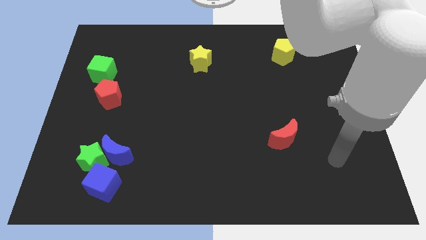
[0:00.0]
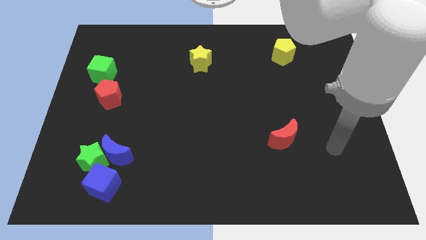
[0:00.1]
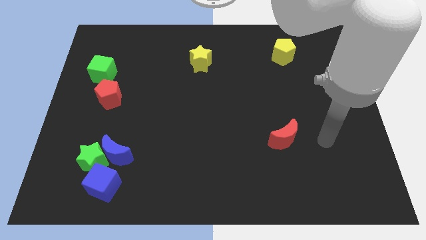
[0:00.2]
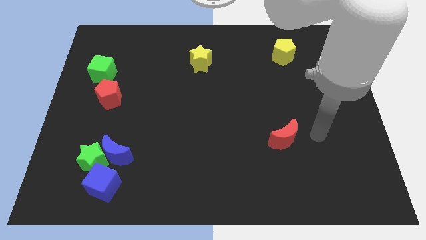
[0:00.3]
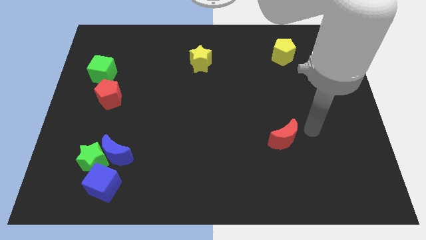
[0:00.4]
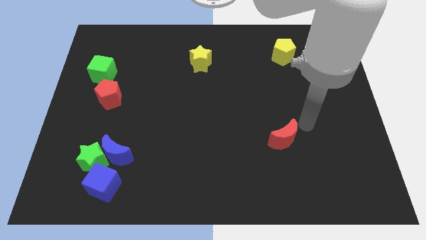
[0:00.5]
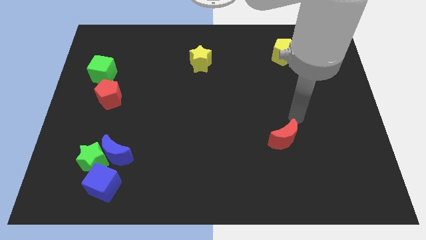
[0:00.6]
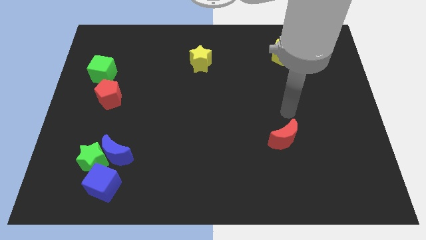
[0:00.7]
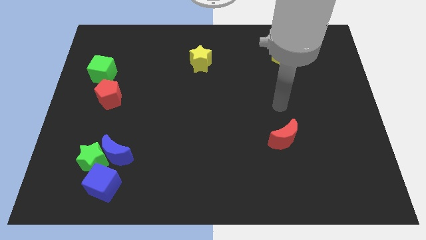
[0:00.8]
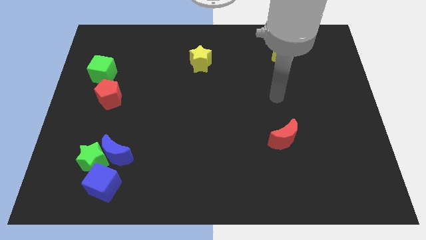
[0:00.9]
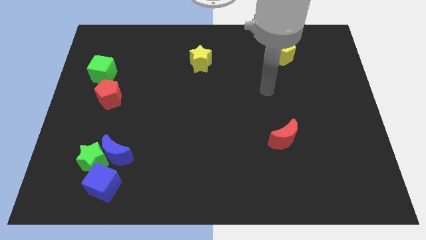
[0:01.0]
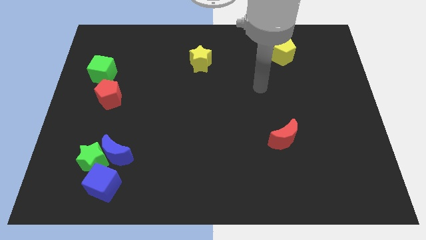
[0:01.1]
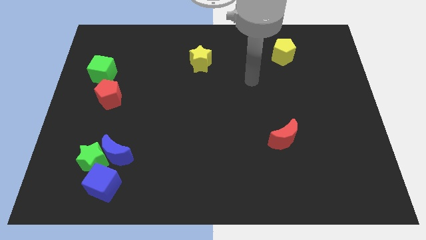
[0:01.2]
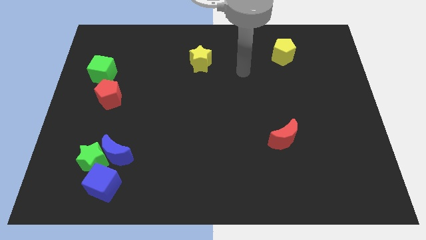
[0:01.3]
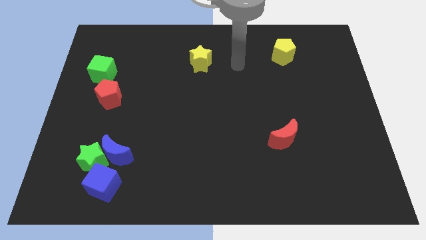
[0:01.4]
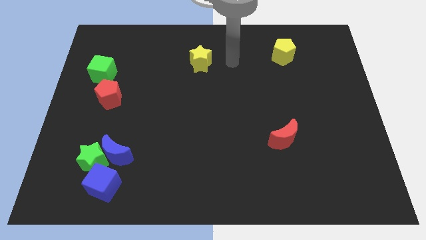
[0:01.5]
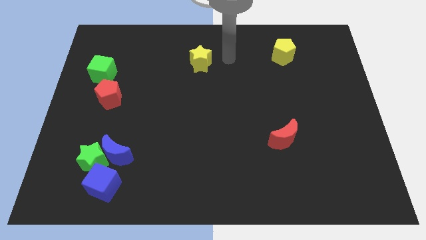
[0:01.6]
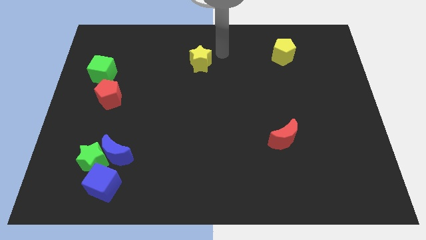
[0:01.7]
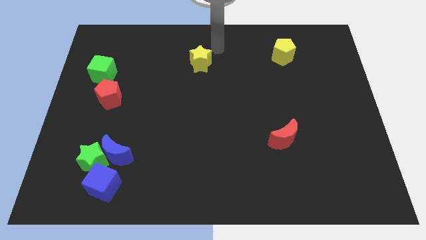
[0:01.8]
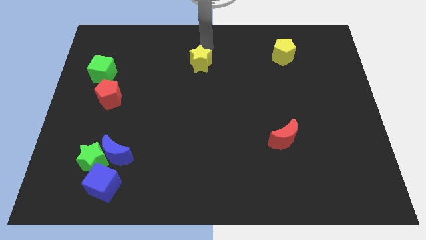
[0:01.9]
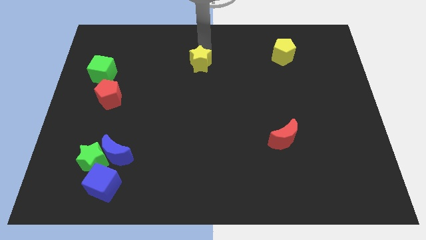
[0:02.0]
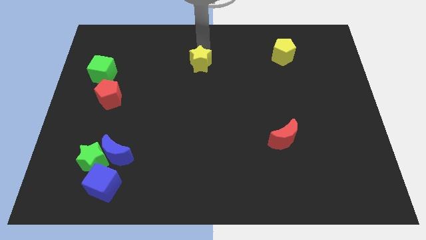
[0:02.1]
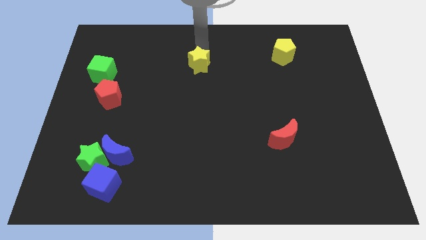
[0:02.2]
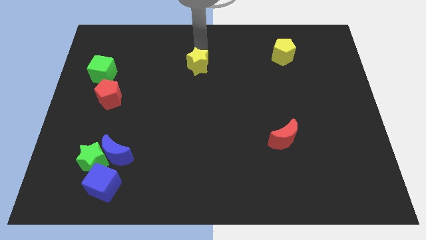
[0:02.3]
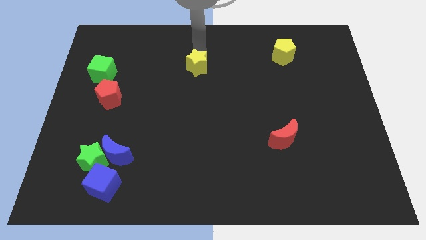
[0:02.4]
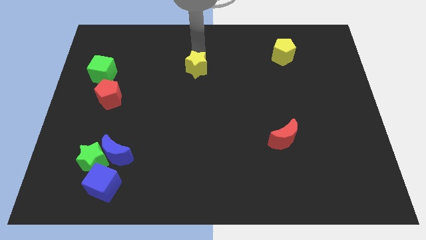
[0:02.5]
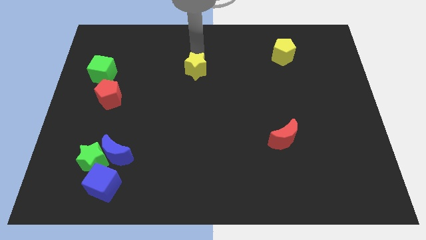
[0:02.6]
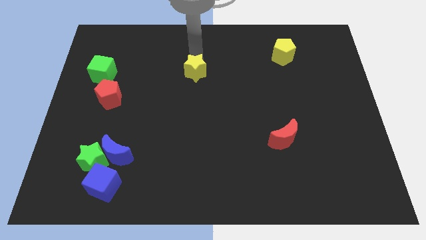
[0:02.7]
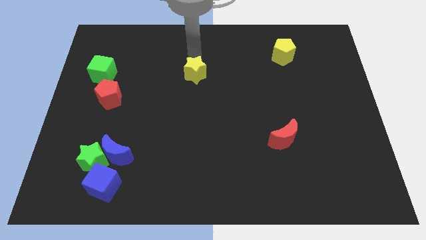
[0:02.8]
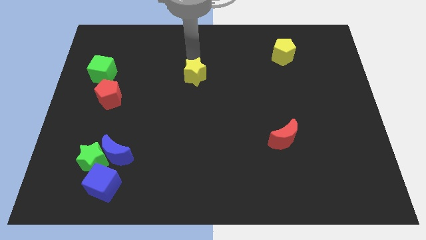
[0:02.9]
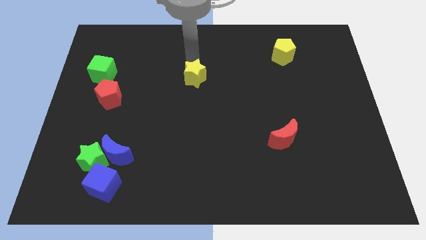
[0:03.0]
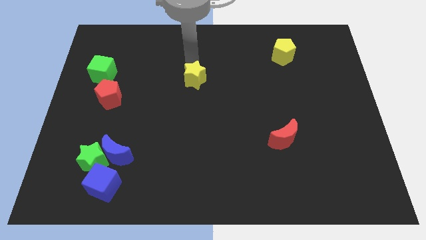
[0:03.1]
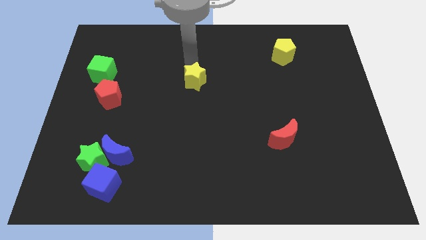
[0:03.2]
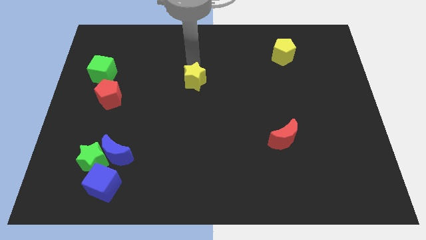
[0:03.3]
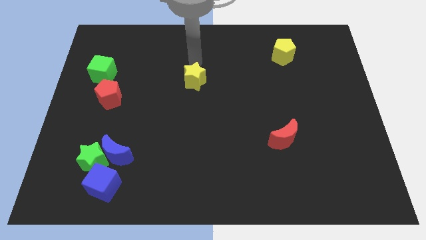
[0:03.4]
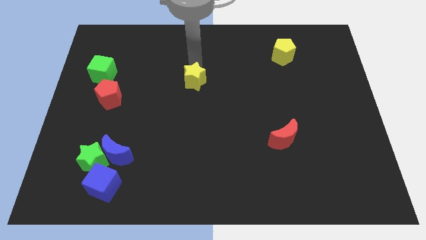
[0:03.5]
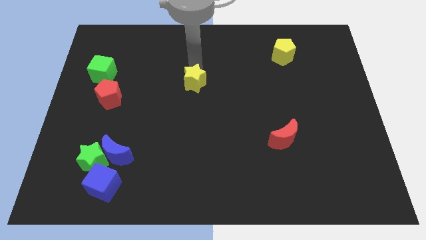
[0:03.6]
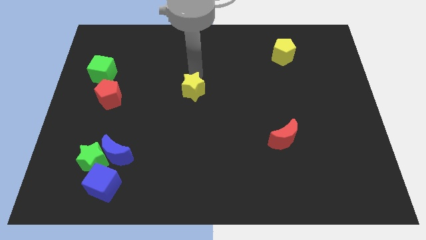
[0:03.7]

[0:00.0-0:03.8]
slightly move the yellow star down

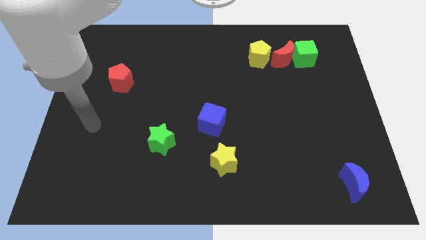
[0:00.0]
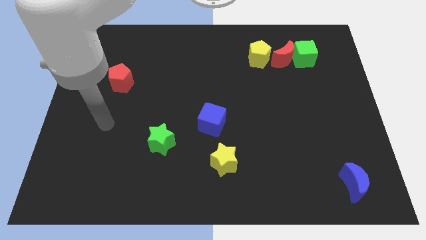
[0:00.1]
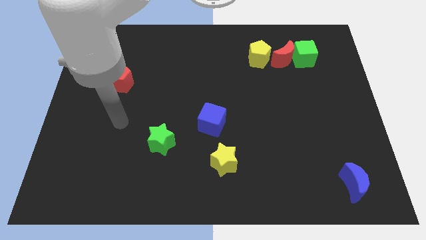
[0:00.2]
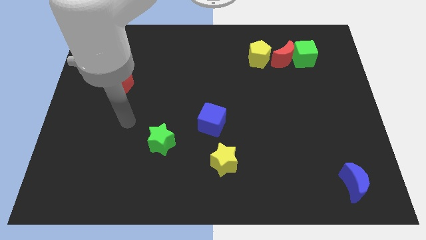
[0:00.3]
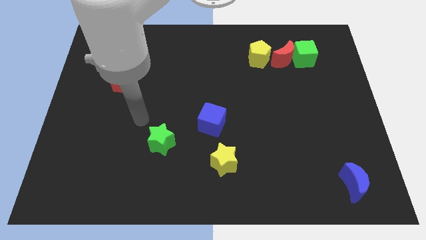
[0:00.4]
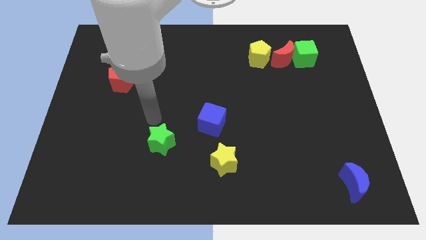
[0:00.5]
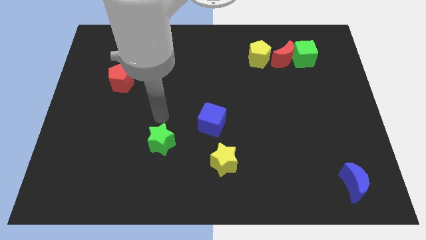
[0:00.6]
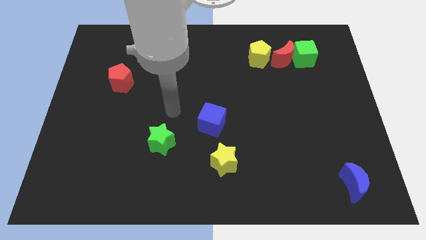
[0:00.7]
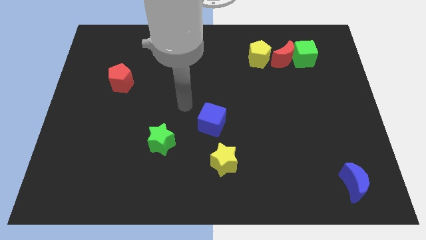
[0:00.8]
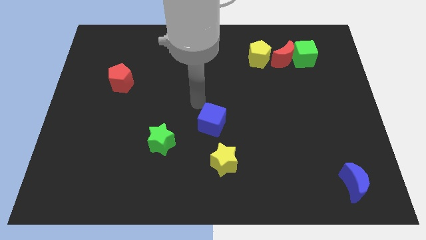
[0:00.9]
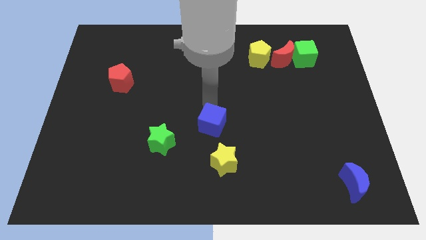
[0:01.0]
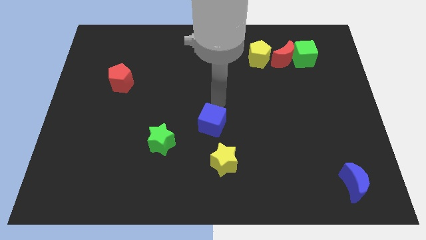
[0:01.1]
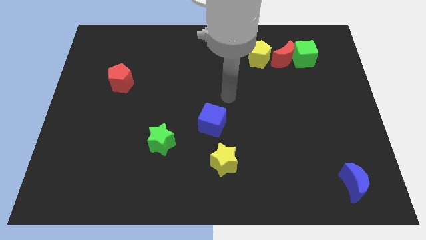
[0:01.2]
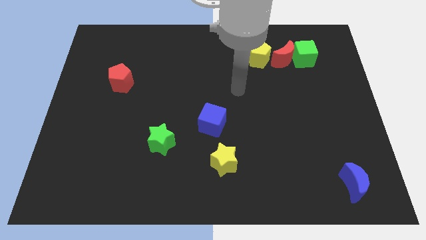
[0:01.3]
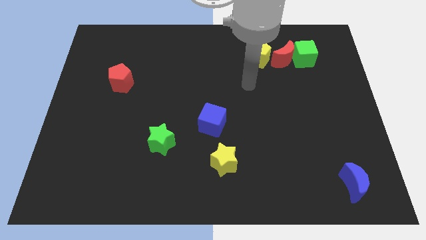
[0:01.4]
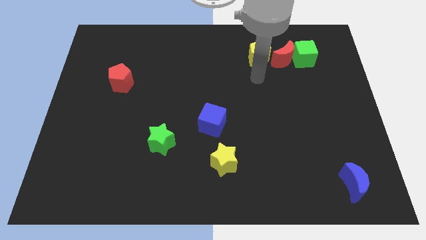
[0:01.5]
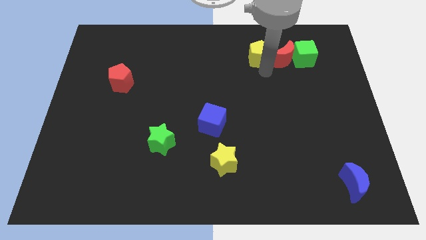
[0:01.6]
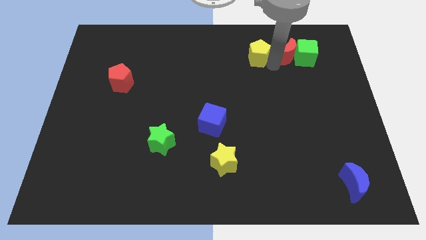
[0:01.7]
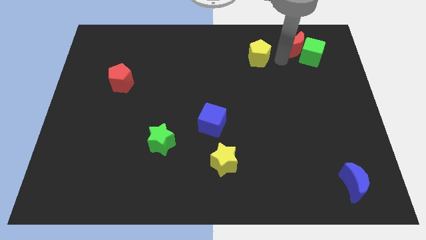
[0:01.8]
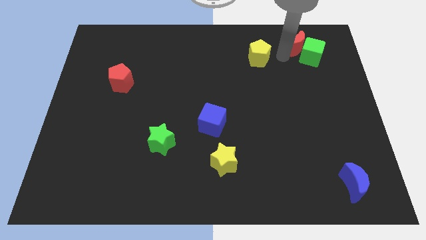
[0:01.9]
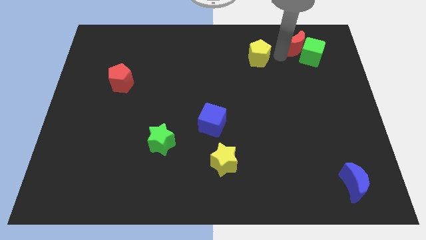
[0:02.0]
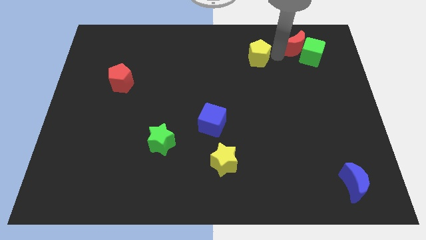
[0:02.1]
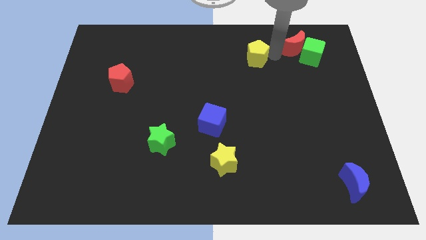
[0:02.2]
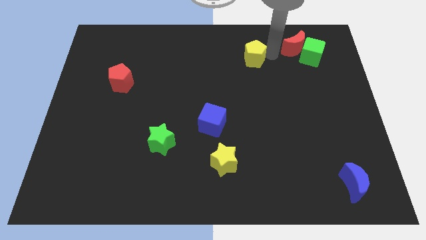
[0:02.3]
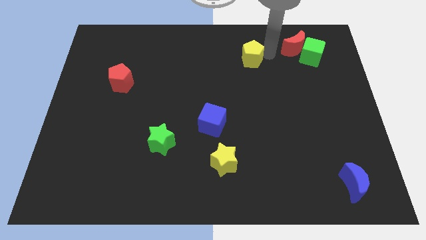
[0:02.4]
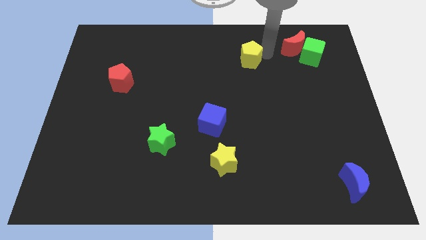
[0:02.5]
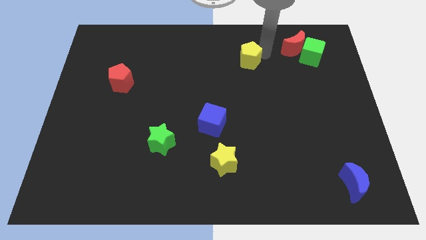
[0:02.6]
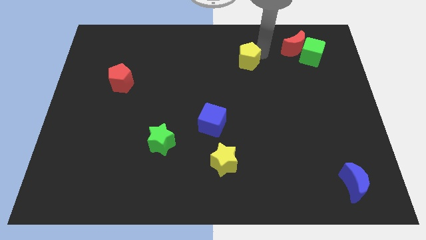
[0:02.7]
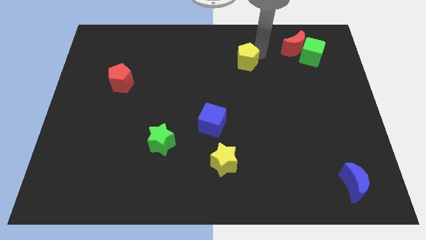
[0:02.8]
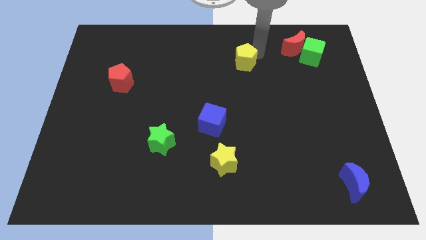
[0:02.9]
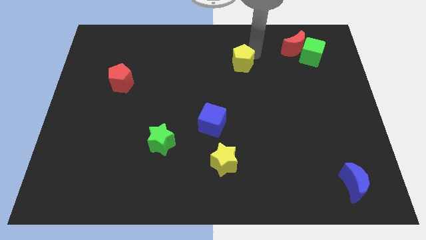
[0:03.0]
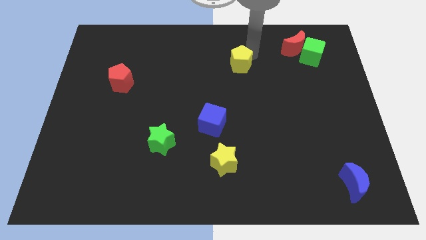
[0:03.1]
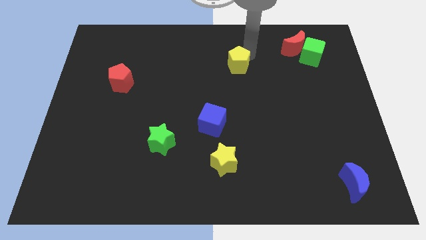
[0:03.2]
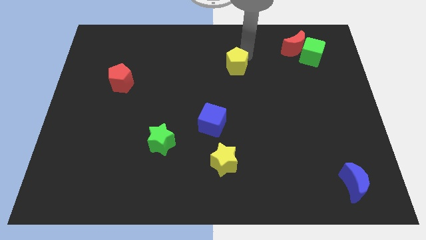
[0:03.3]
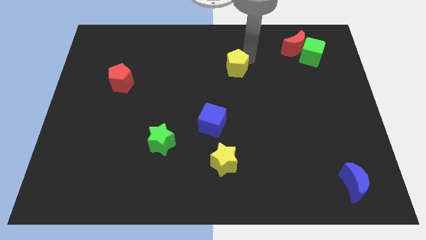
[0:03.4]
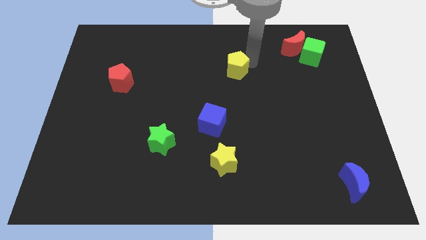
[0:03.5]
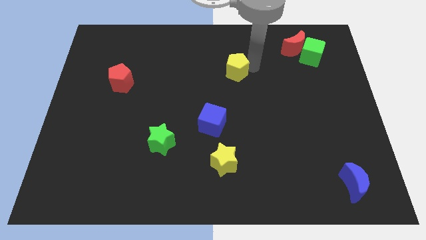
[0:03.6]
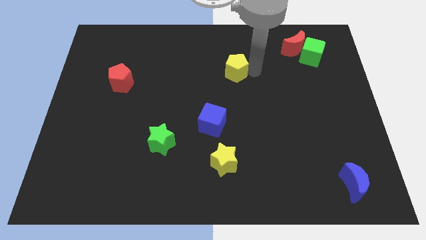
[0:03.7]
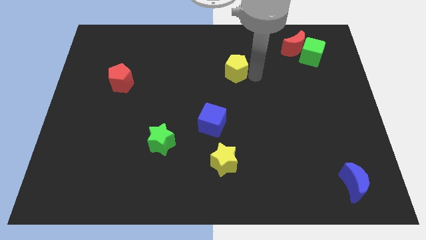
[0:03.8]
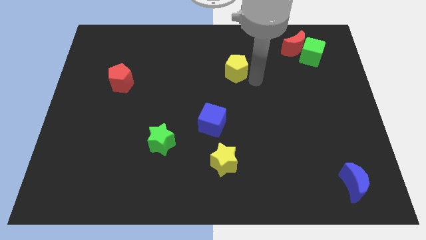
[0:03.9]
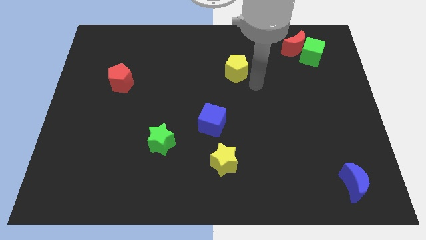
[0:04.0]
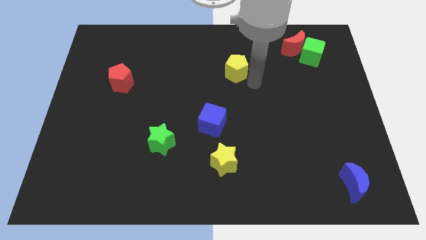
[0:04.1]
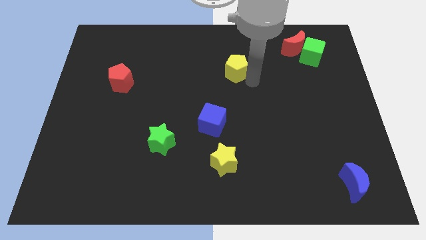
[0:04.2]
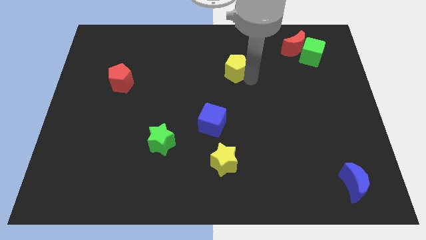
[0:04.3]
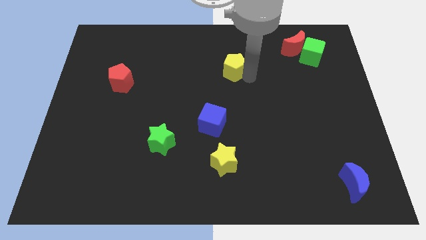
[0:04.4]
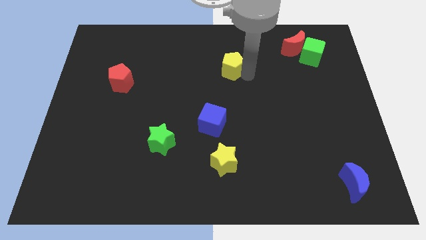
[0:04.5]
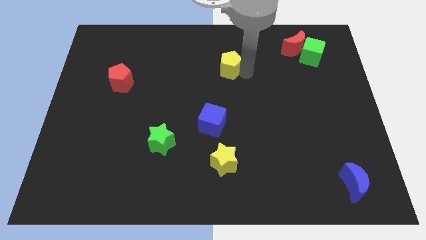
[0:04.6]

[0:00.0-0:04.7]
slightly push the yellow pentagon to the left
